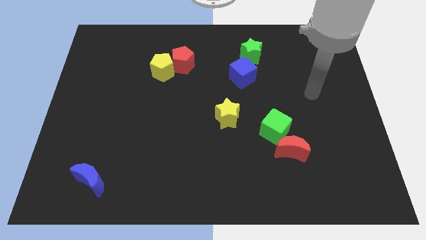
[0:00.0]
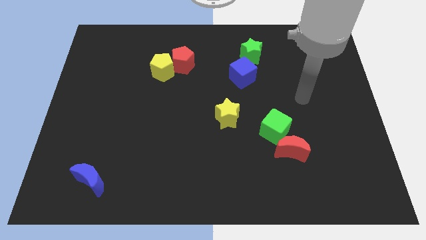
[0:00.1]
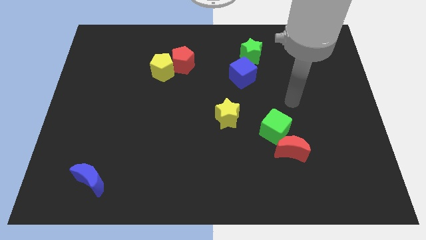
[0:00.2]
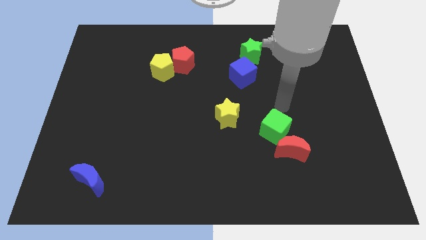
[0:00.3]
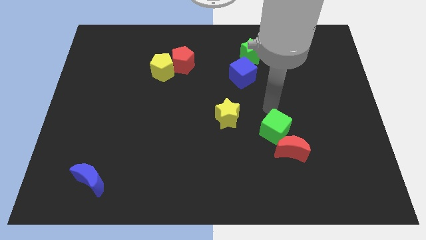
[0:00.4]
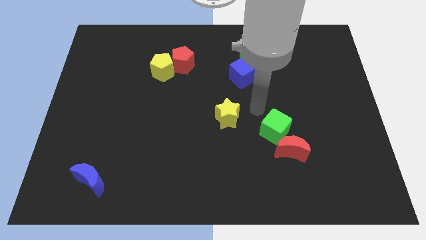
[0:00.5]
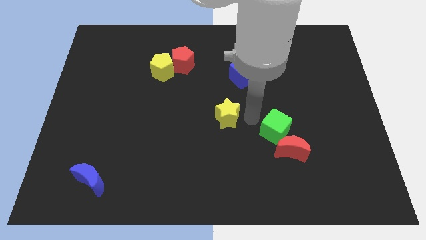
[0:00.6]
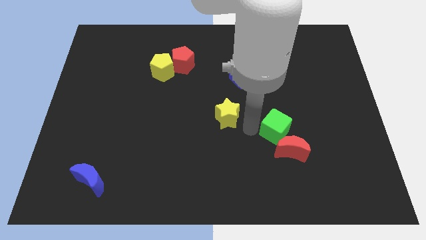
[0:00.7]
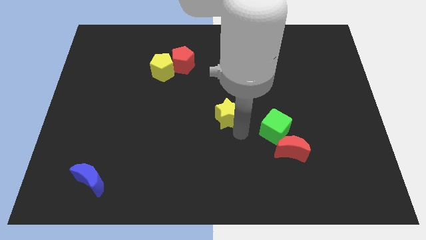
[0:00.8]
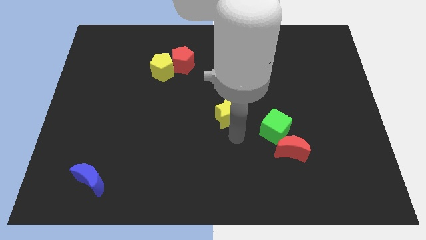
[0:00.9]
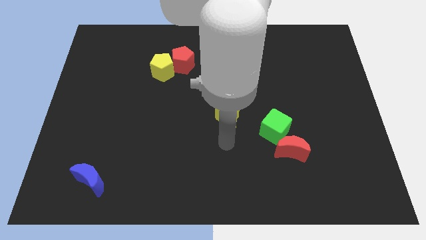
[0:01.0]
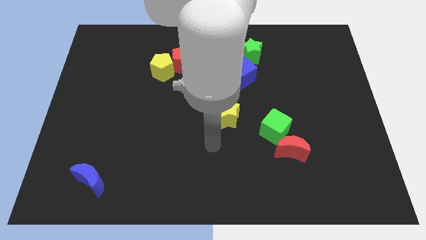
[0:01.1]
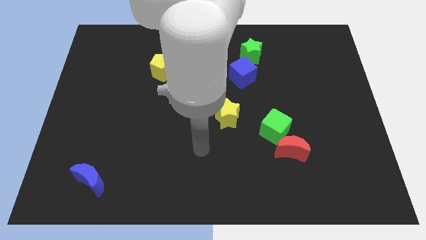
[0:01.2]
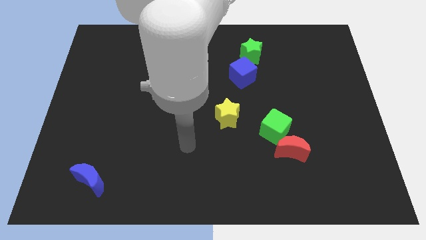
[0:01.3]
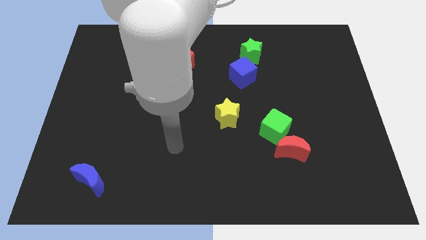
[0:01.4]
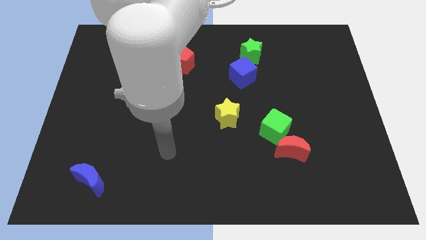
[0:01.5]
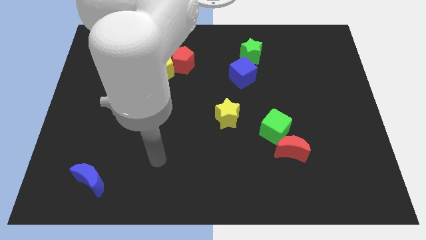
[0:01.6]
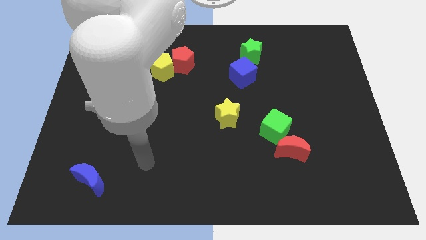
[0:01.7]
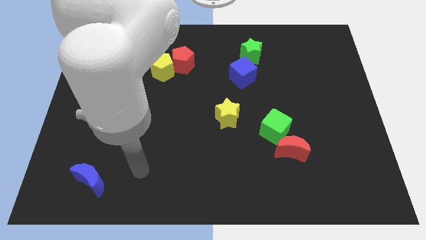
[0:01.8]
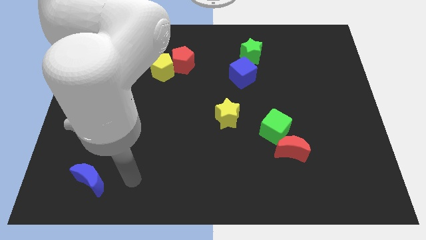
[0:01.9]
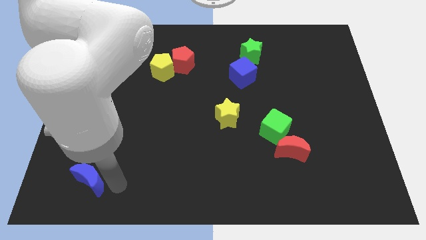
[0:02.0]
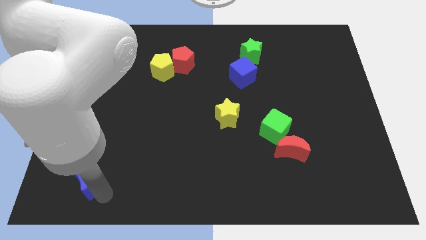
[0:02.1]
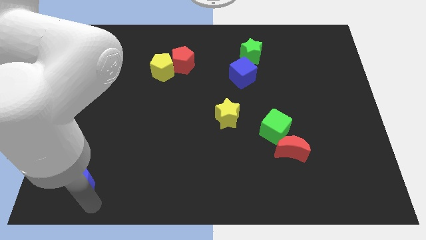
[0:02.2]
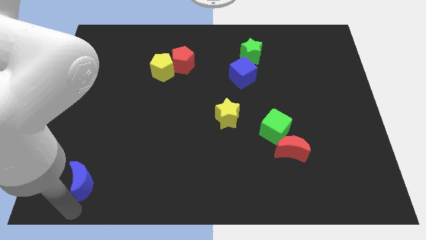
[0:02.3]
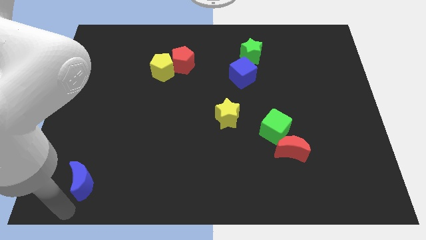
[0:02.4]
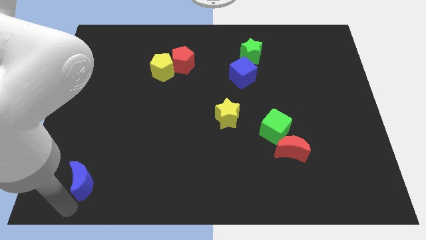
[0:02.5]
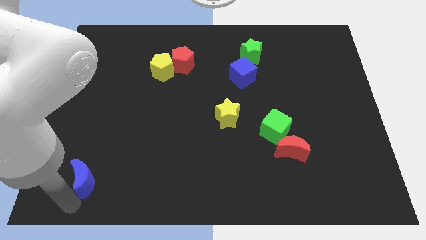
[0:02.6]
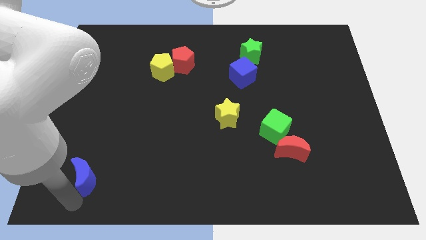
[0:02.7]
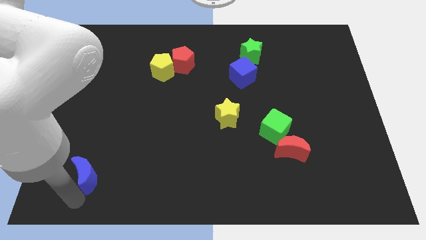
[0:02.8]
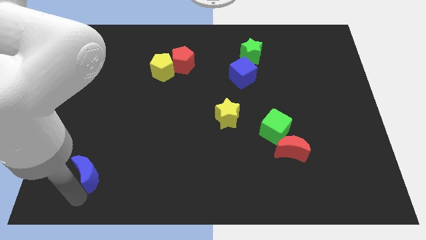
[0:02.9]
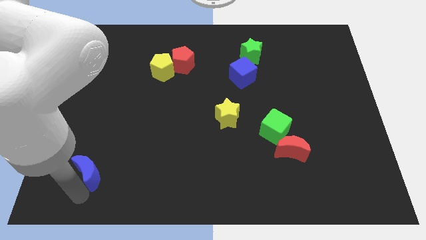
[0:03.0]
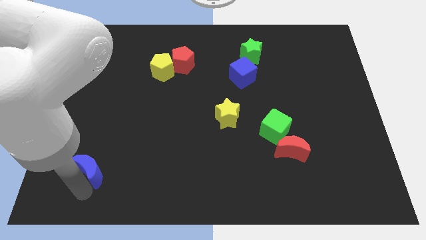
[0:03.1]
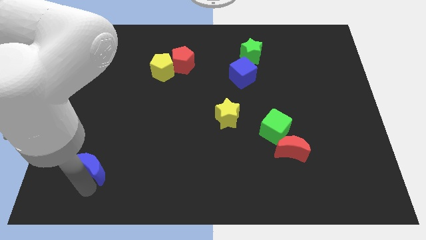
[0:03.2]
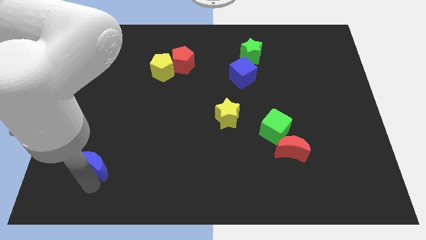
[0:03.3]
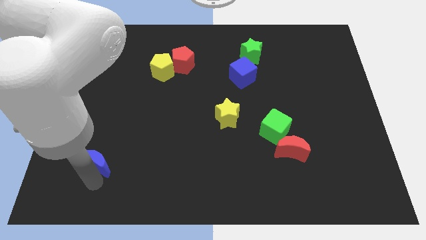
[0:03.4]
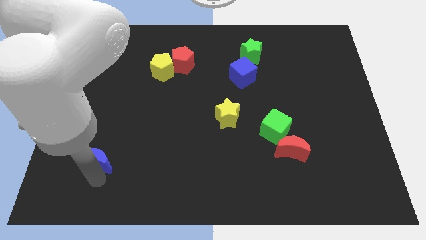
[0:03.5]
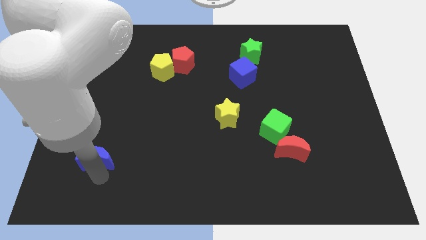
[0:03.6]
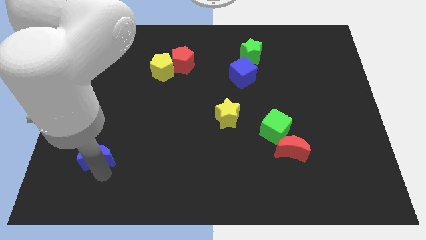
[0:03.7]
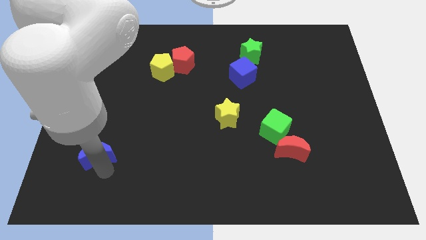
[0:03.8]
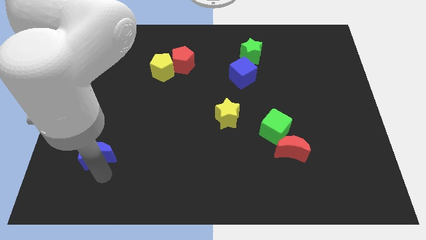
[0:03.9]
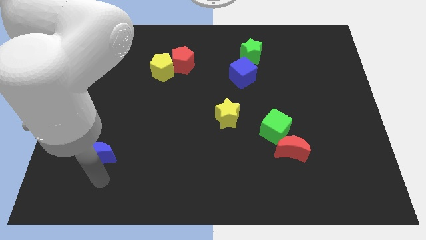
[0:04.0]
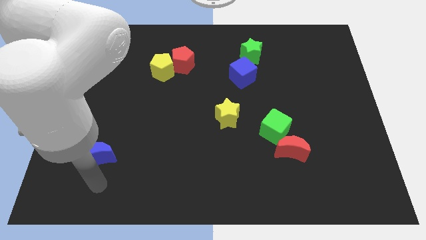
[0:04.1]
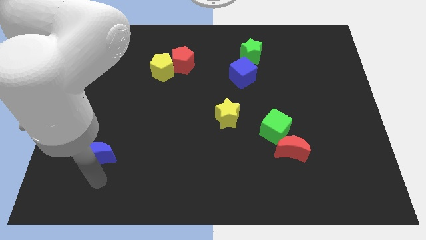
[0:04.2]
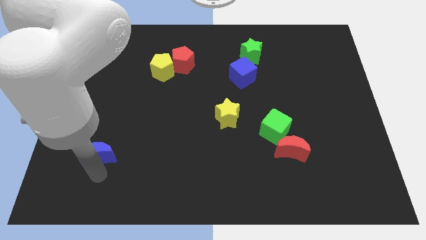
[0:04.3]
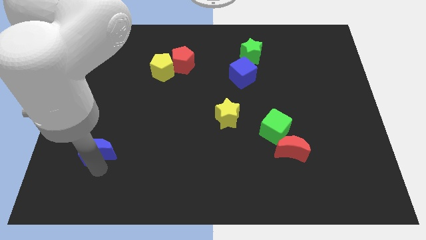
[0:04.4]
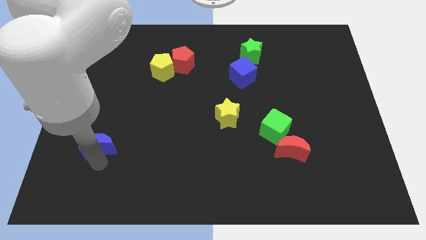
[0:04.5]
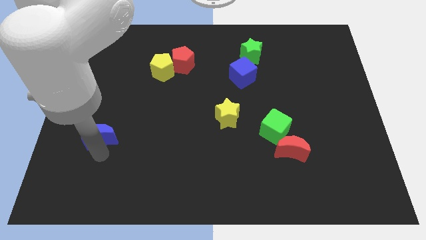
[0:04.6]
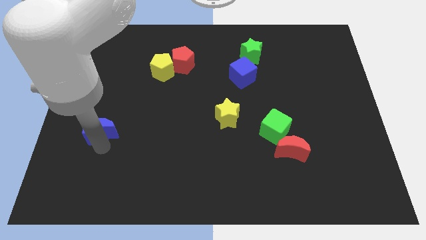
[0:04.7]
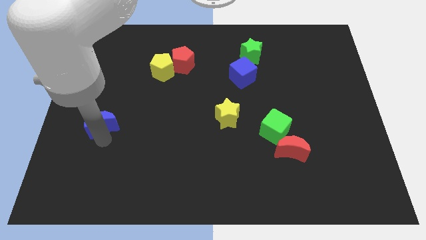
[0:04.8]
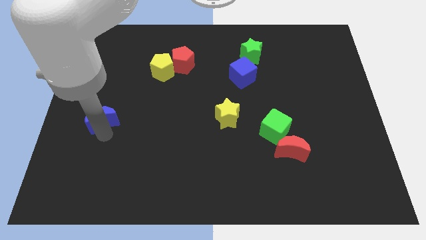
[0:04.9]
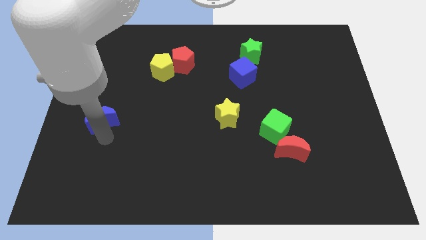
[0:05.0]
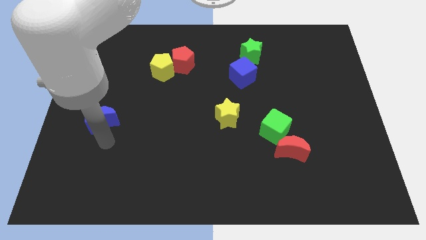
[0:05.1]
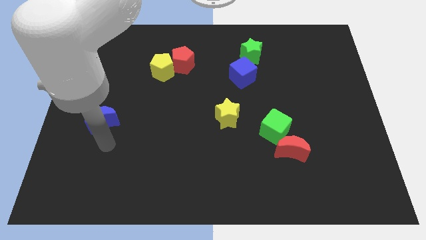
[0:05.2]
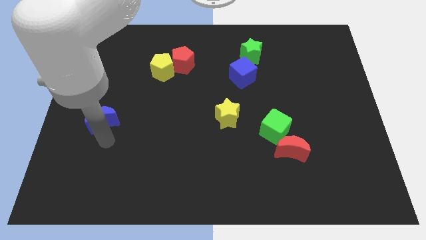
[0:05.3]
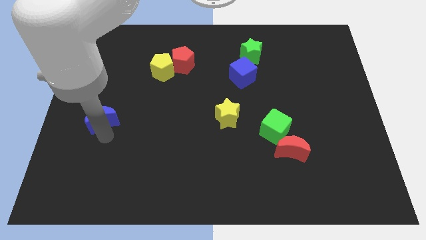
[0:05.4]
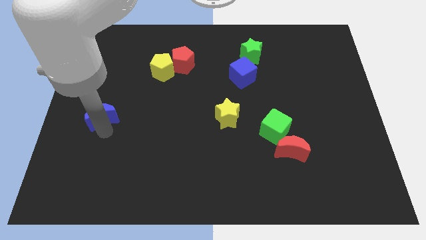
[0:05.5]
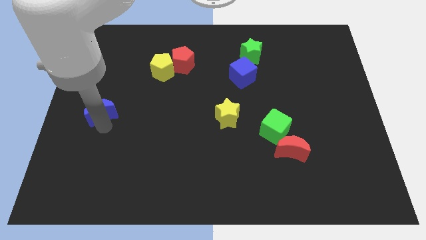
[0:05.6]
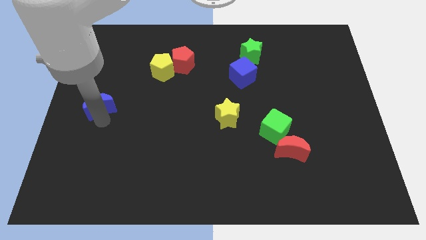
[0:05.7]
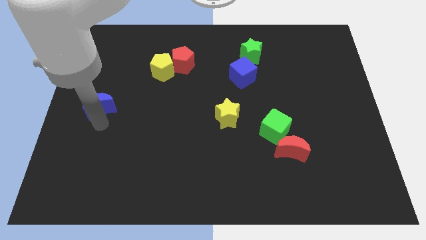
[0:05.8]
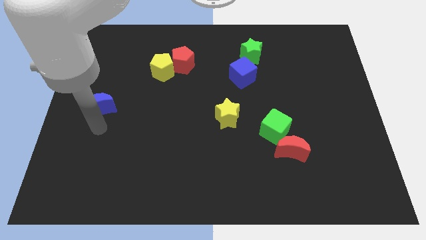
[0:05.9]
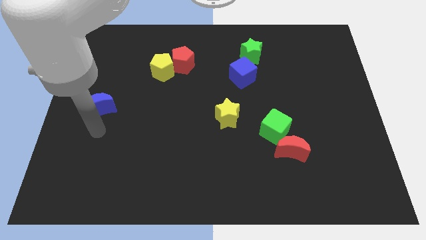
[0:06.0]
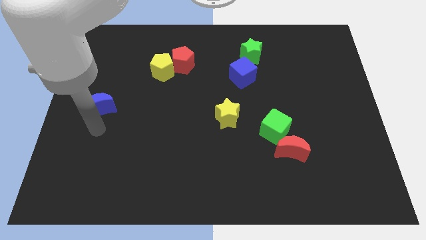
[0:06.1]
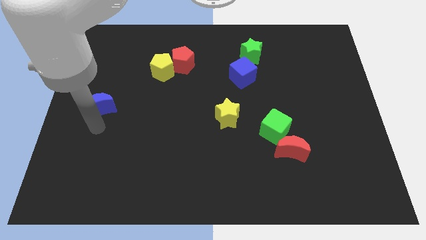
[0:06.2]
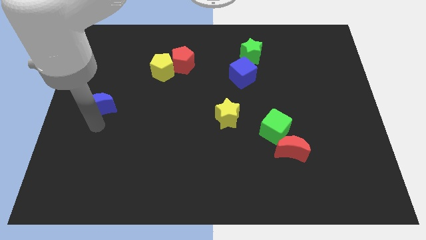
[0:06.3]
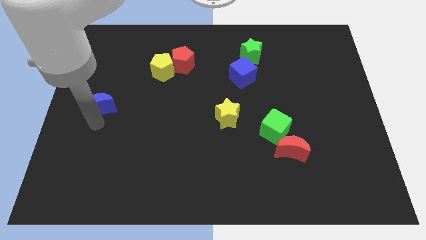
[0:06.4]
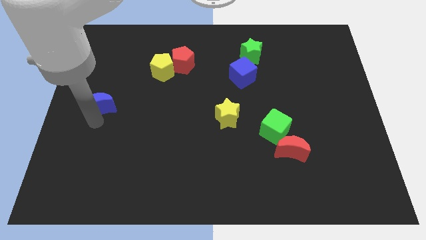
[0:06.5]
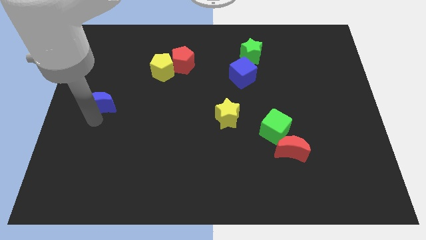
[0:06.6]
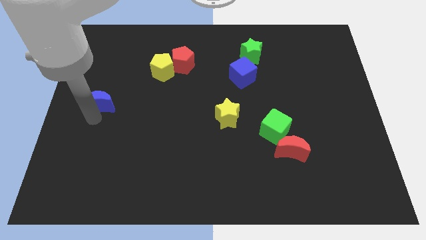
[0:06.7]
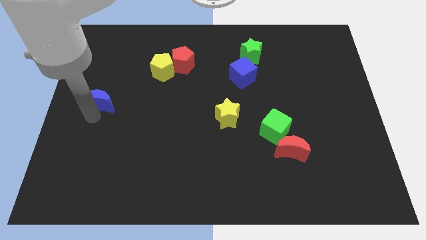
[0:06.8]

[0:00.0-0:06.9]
push the blue moon upwards

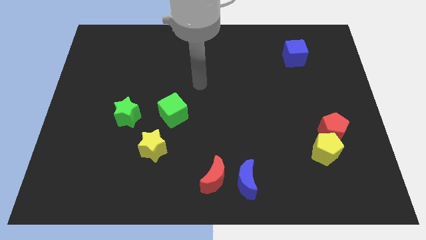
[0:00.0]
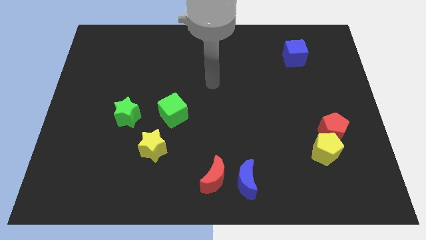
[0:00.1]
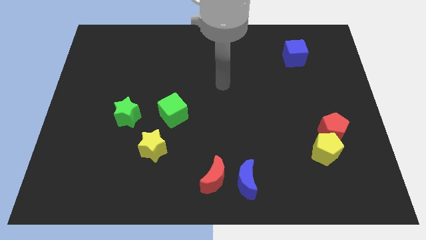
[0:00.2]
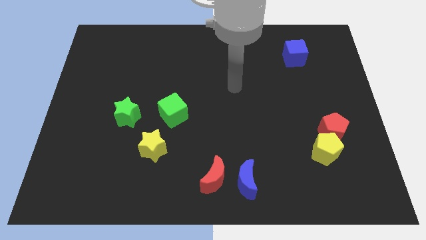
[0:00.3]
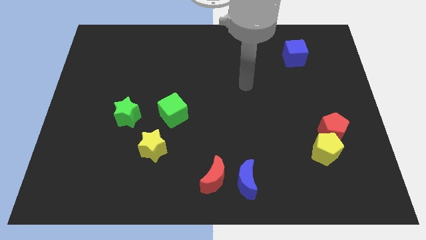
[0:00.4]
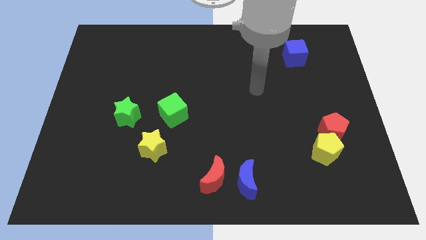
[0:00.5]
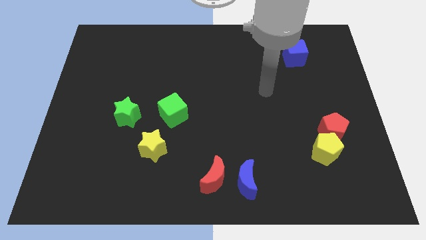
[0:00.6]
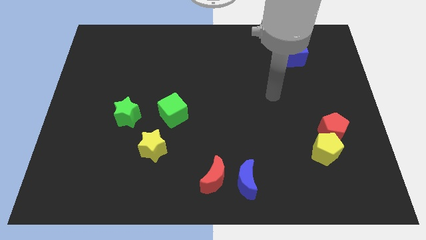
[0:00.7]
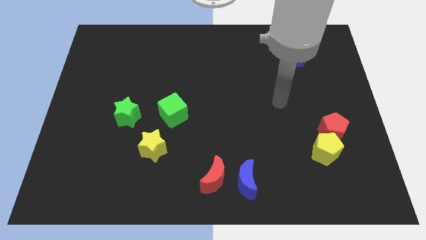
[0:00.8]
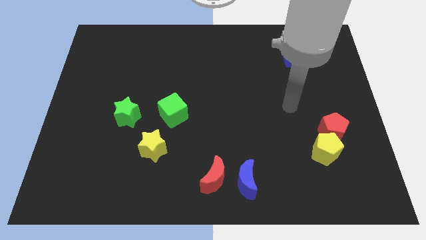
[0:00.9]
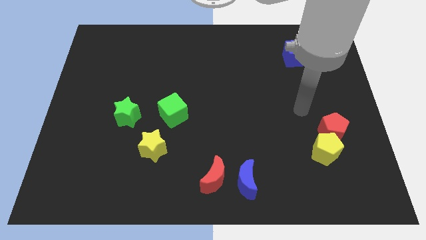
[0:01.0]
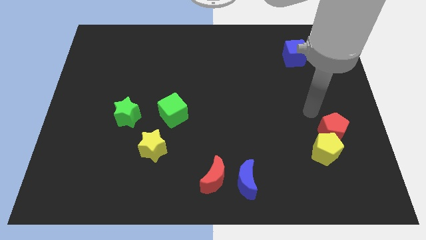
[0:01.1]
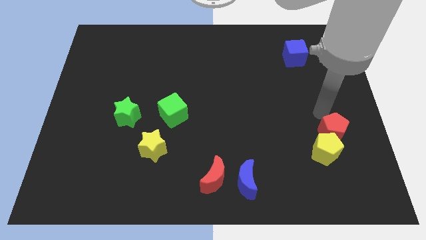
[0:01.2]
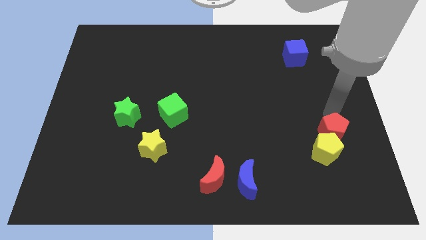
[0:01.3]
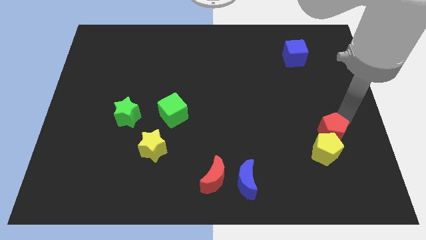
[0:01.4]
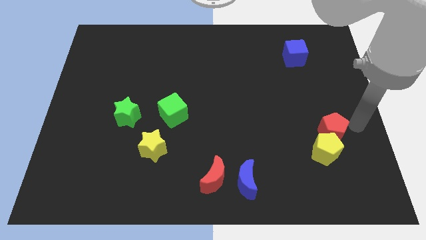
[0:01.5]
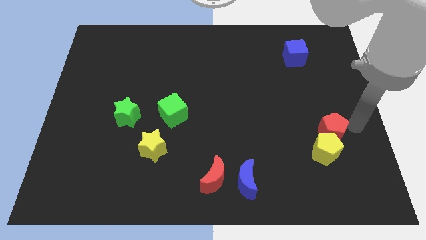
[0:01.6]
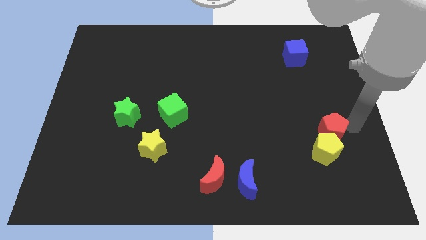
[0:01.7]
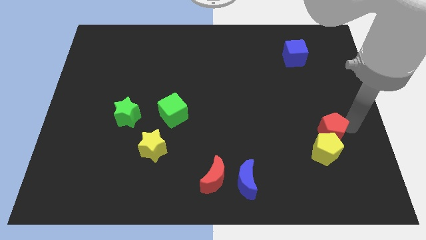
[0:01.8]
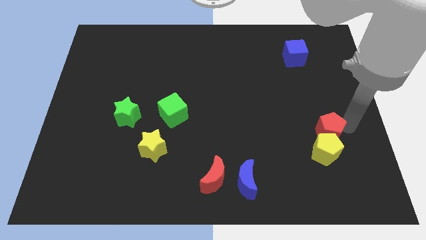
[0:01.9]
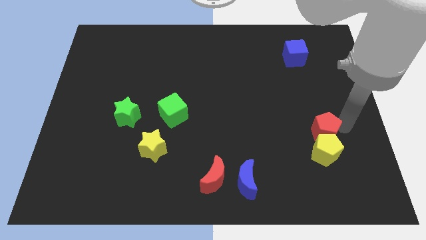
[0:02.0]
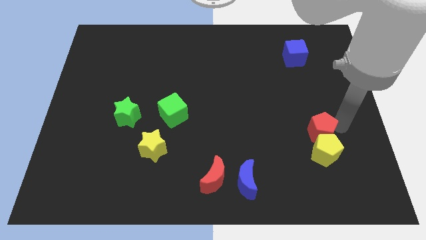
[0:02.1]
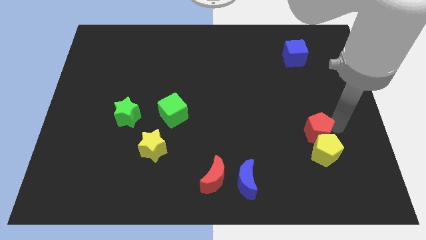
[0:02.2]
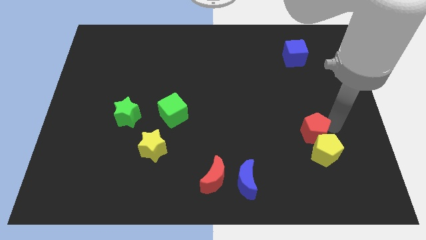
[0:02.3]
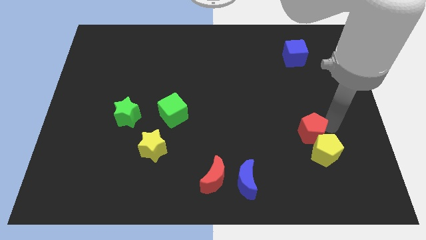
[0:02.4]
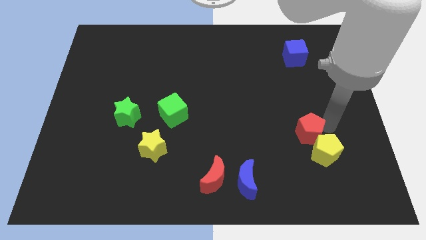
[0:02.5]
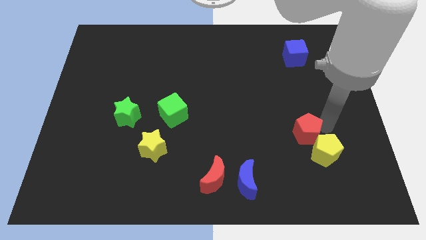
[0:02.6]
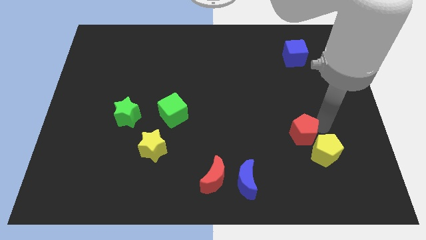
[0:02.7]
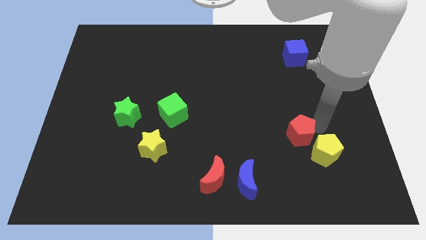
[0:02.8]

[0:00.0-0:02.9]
move the red pentagon a bit to the left
